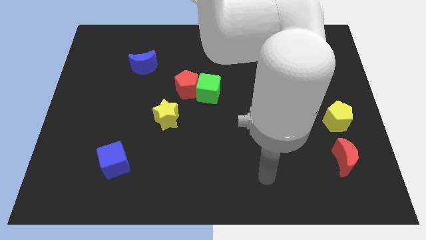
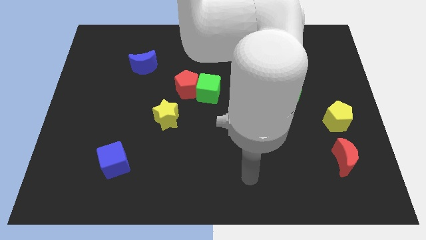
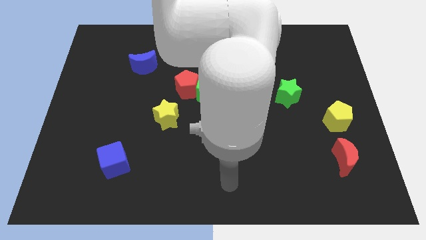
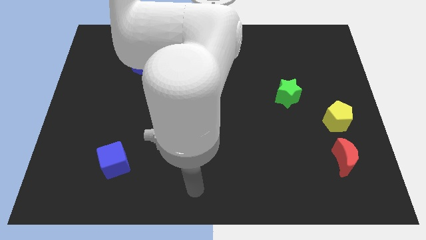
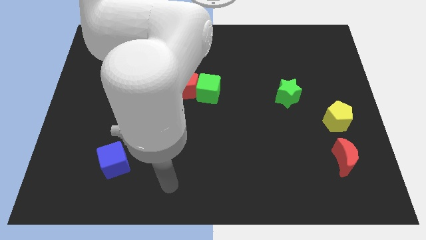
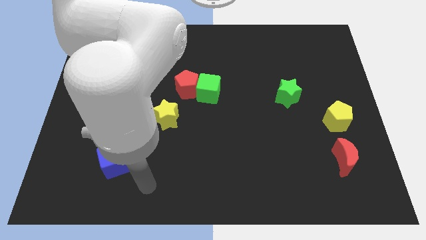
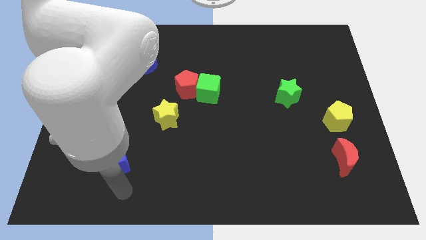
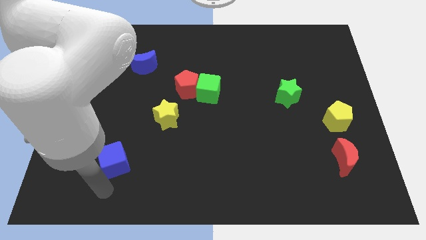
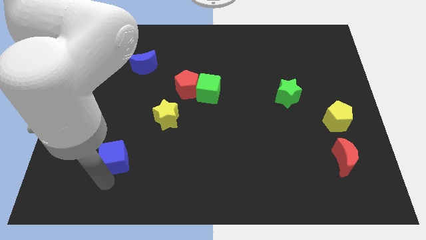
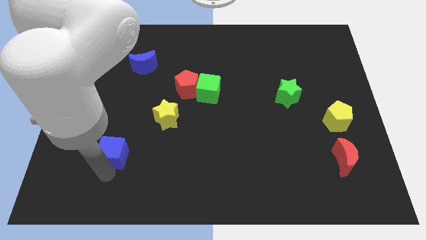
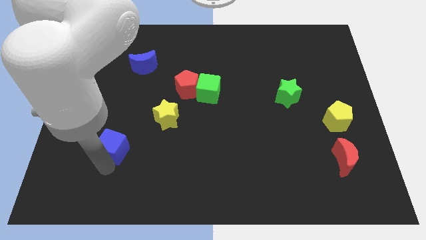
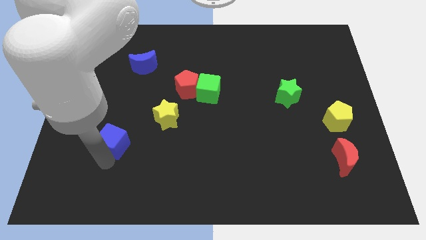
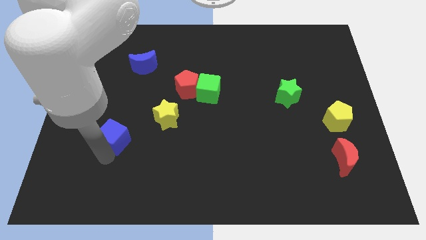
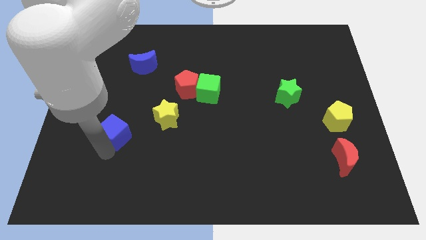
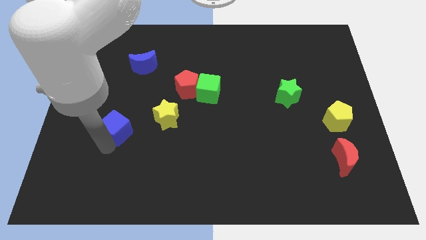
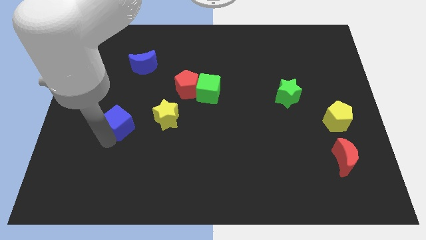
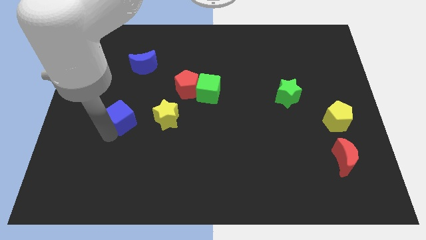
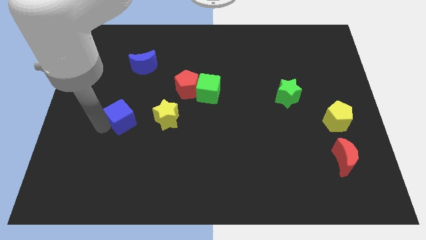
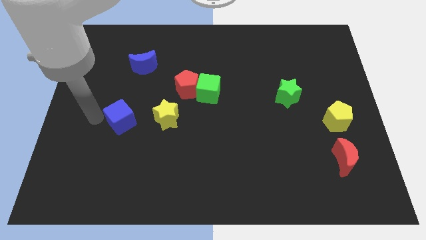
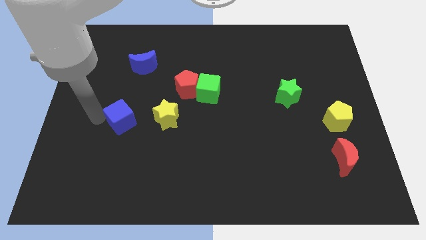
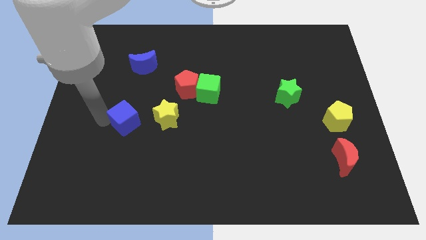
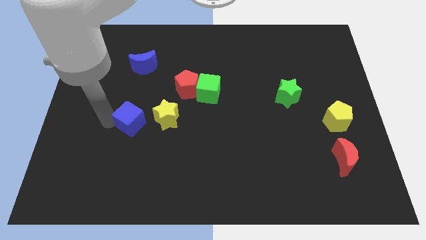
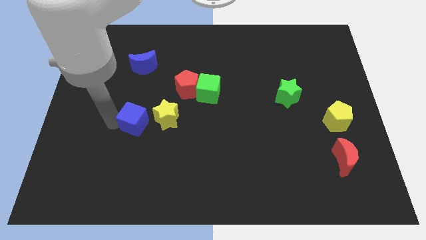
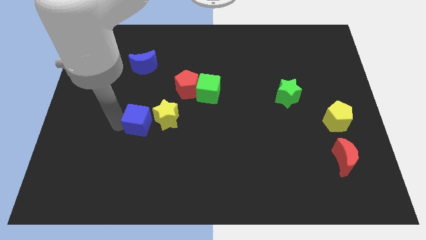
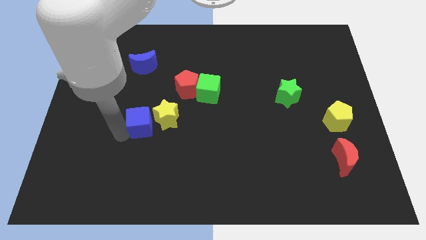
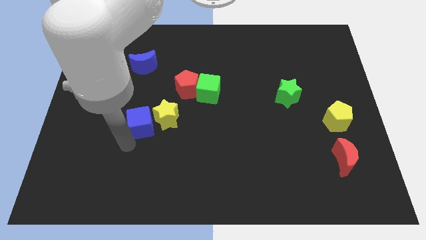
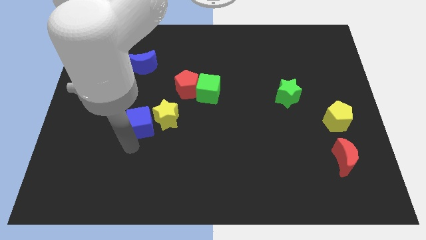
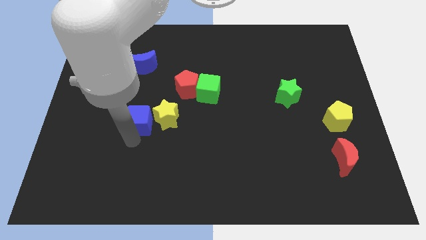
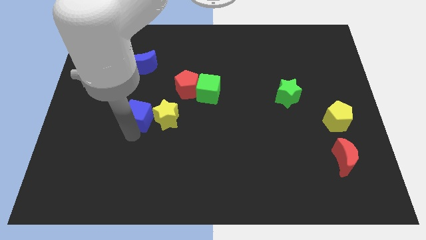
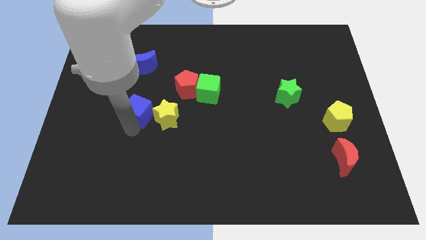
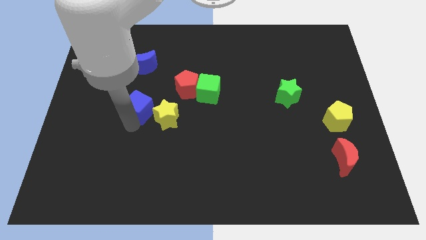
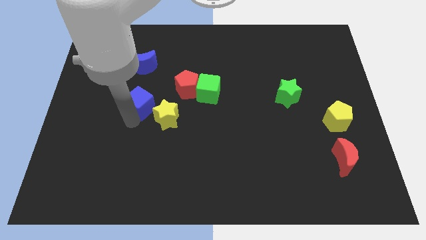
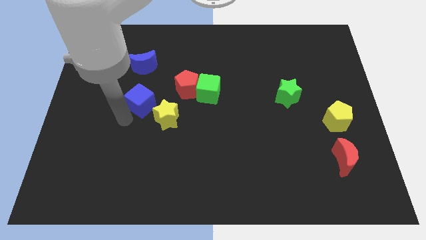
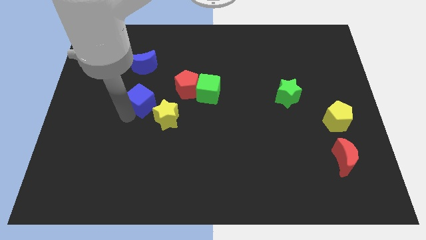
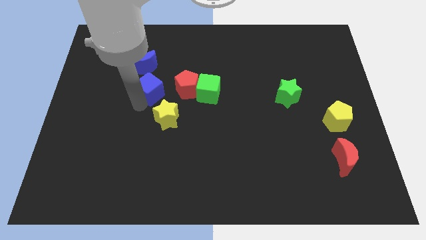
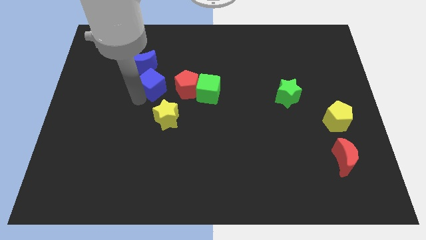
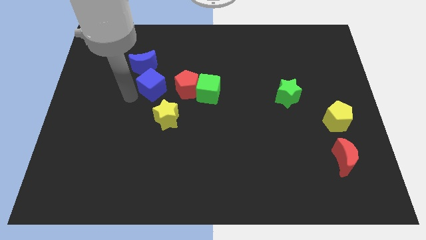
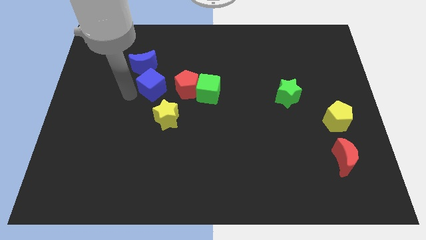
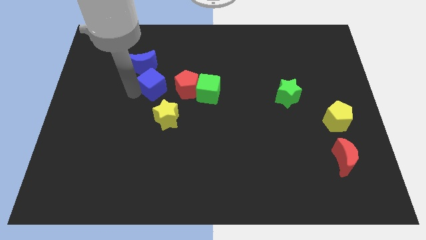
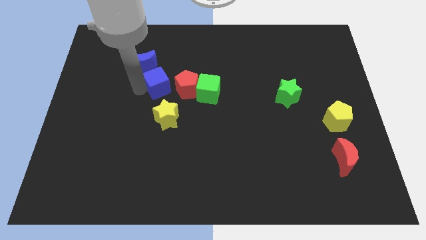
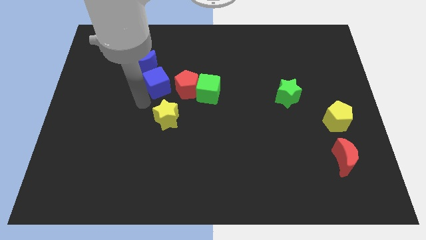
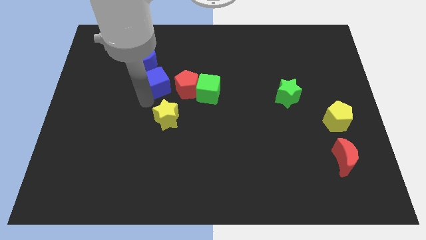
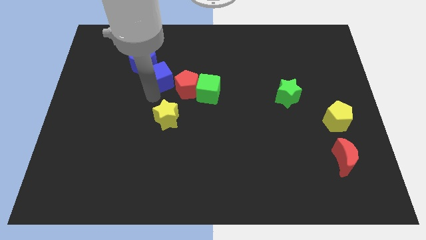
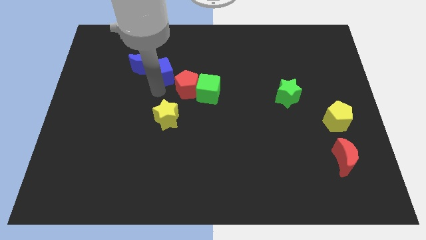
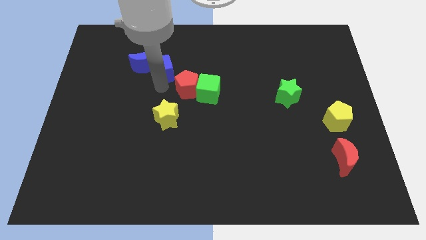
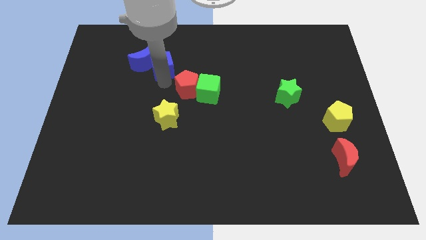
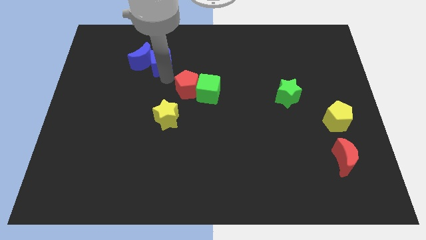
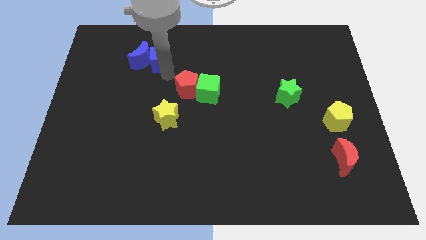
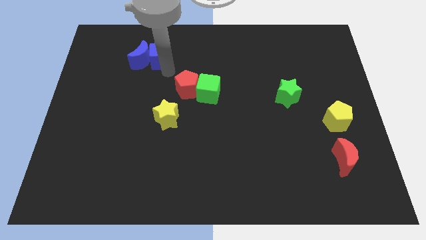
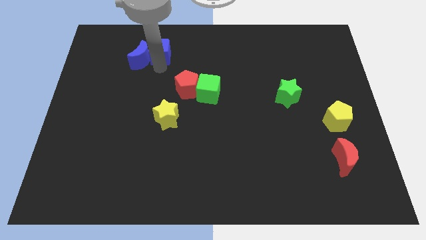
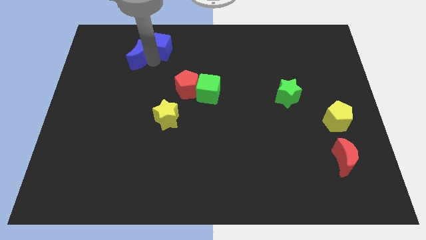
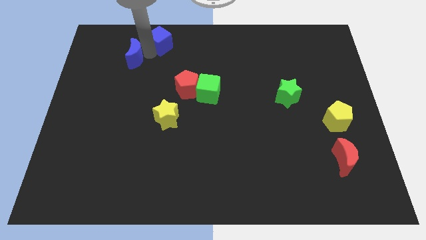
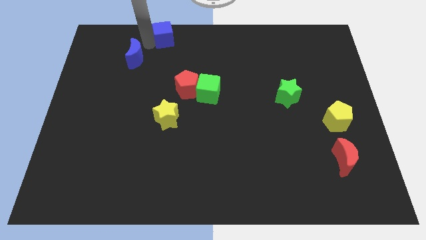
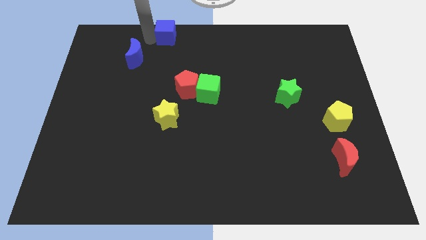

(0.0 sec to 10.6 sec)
slide the blue cube to the towards your base

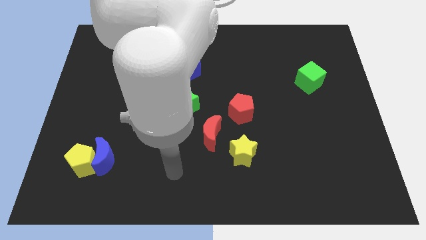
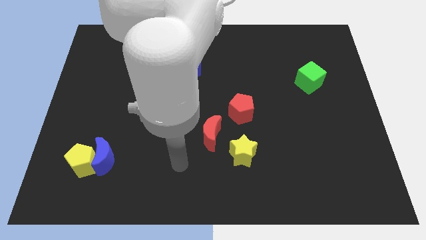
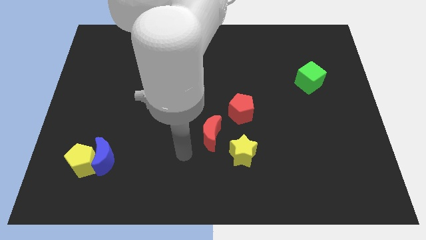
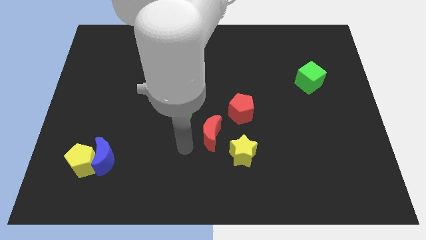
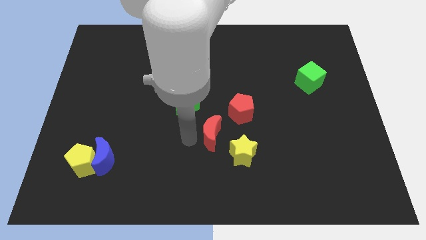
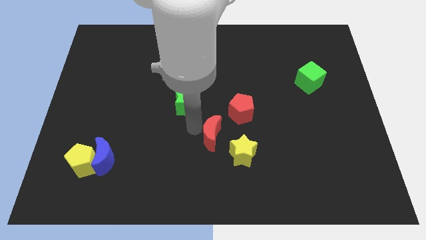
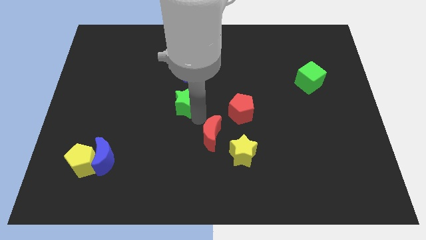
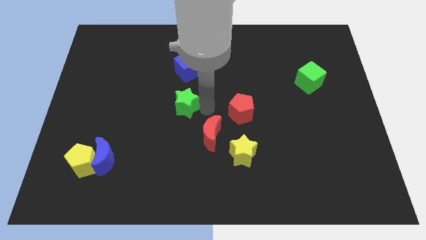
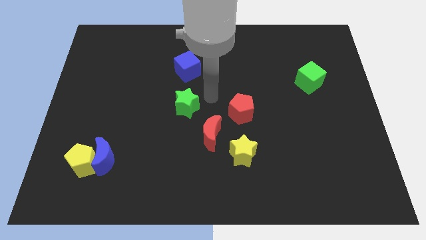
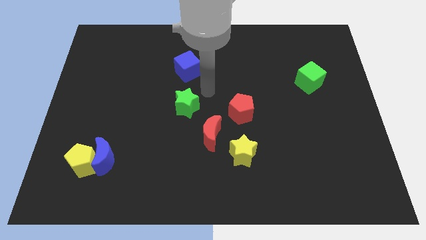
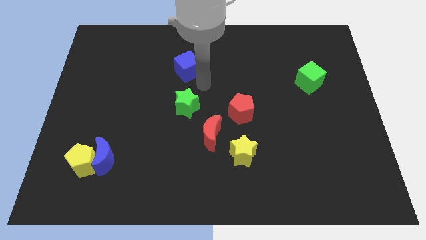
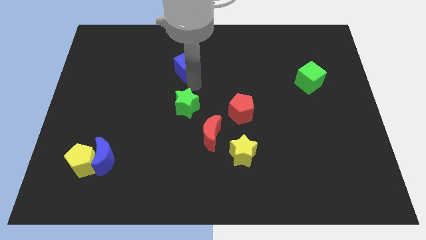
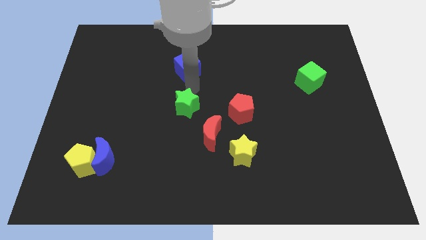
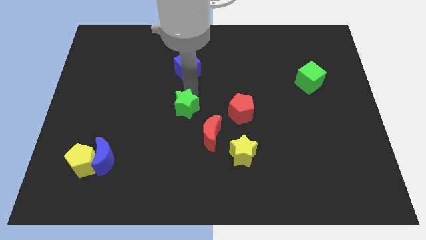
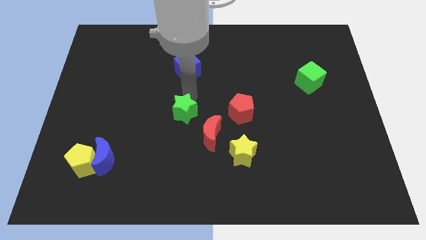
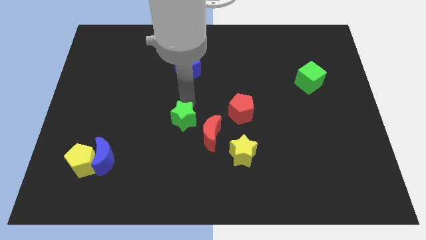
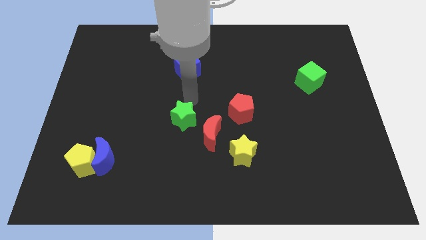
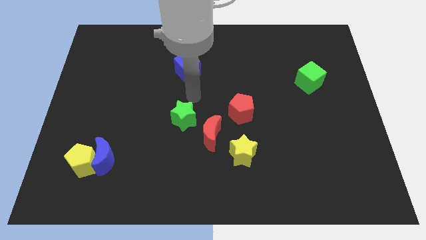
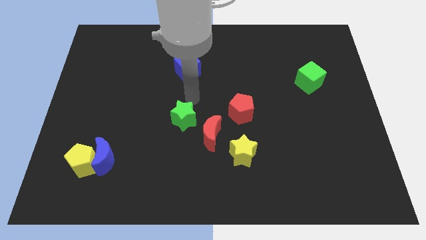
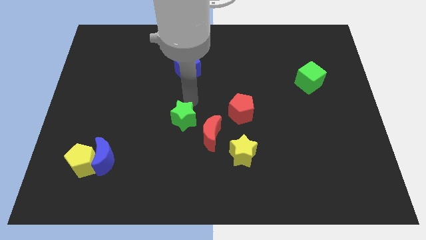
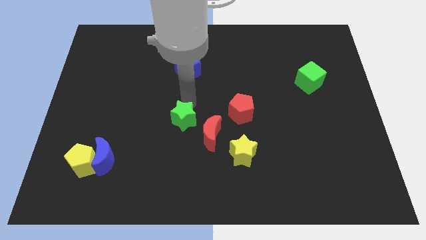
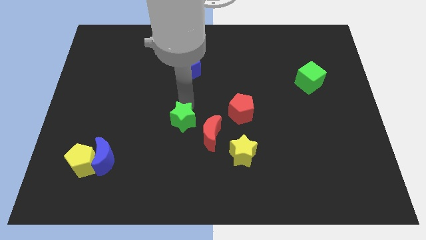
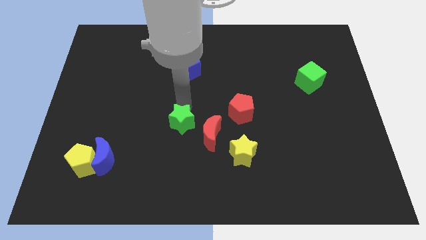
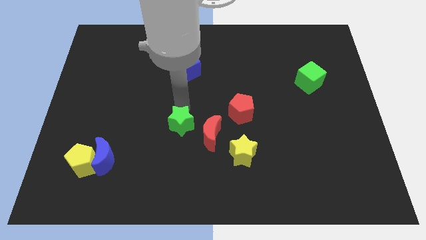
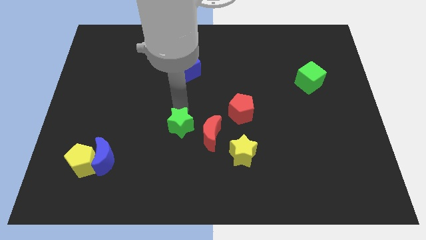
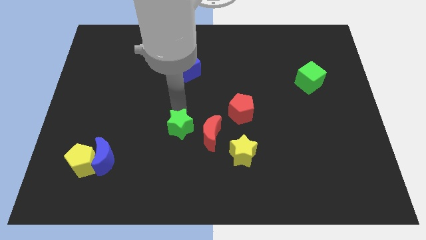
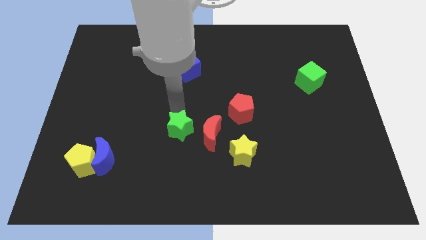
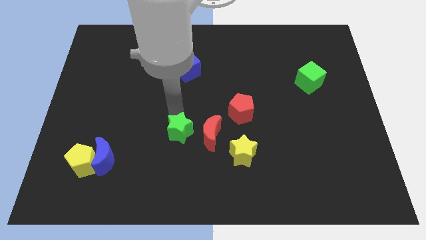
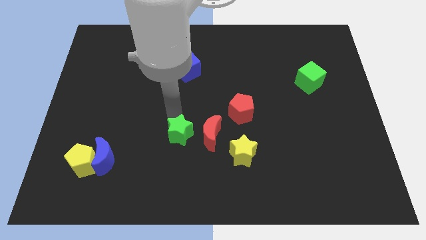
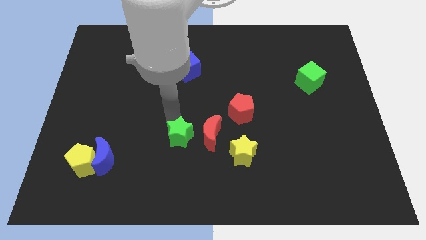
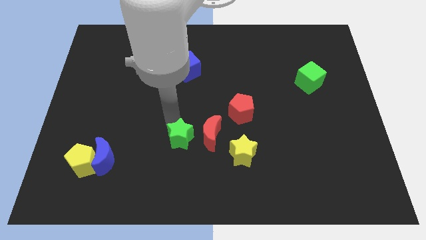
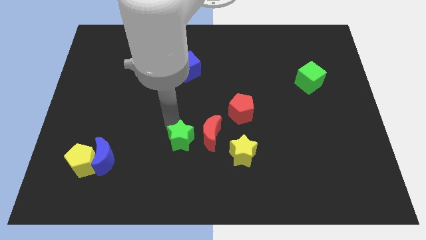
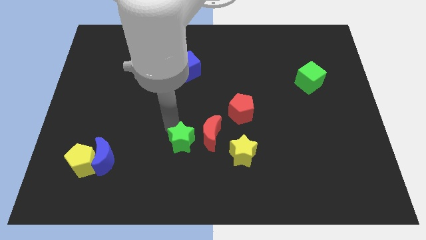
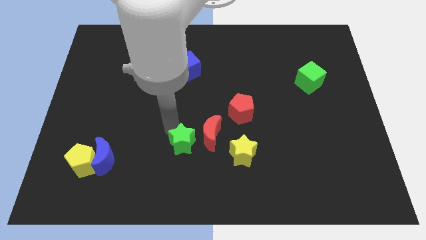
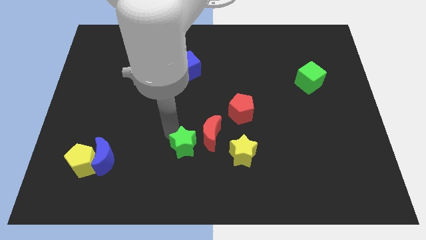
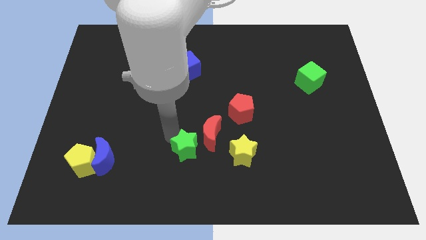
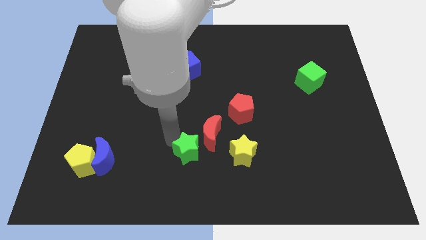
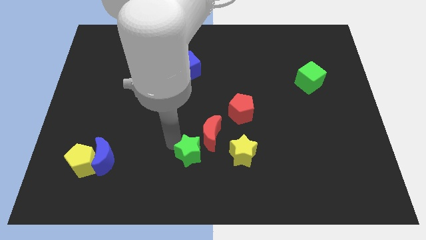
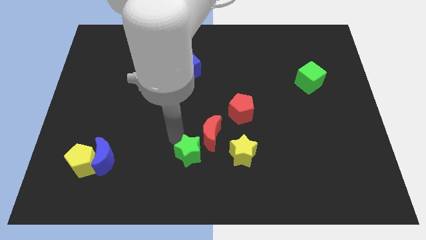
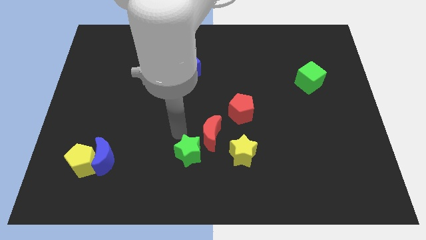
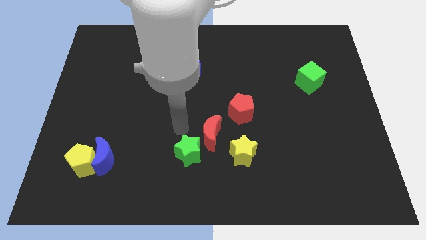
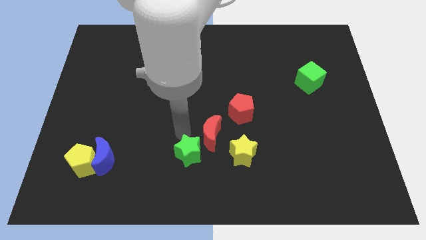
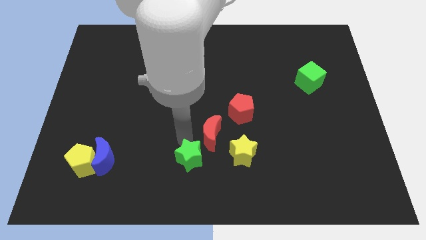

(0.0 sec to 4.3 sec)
put the green star to the bottom
